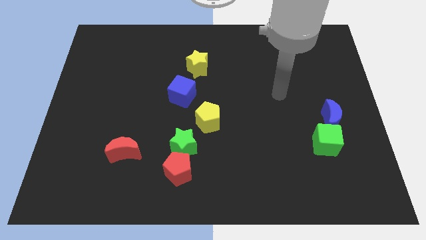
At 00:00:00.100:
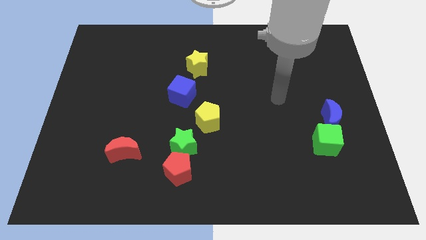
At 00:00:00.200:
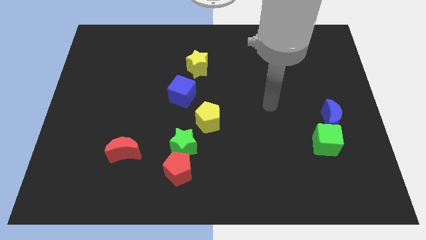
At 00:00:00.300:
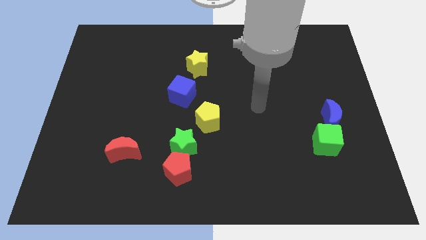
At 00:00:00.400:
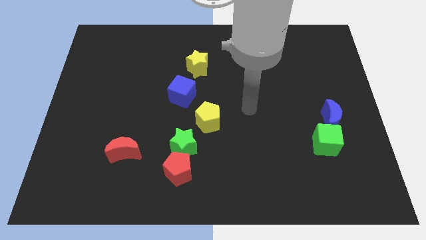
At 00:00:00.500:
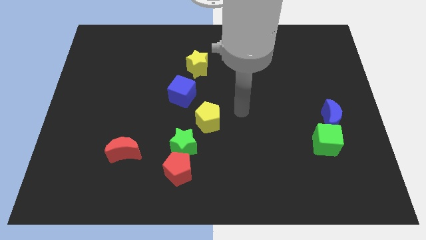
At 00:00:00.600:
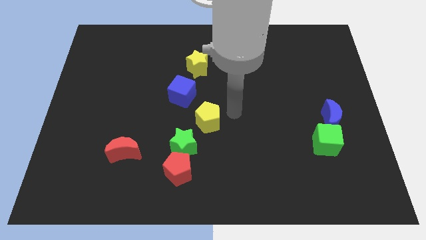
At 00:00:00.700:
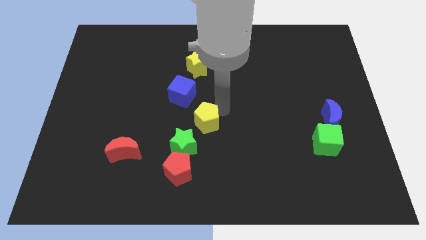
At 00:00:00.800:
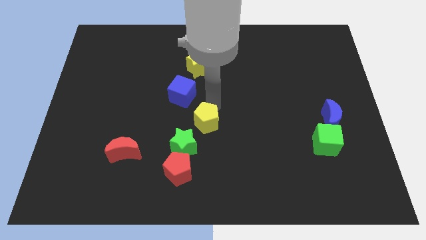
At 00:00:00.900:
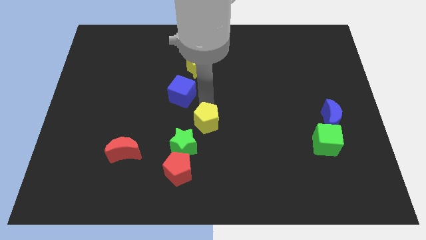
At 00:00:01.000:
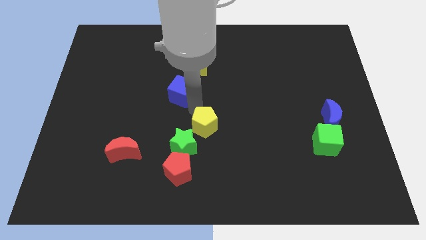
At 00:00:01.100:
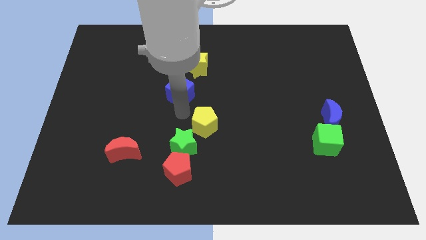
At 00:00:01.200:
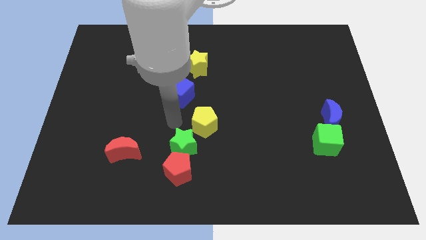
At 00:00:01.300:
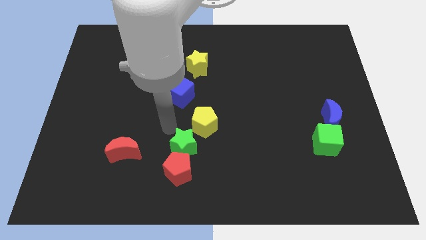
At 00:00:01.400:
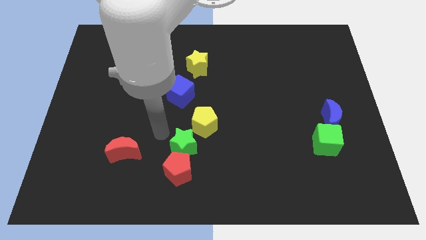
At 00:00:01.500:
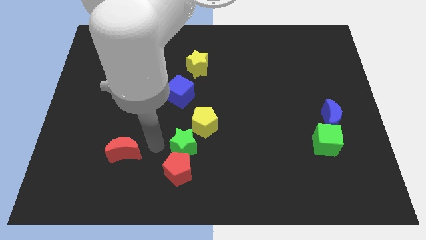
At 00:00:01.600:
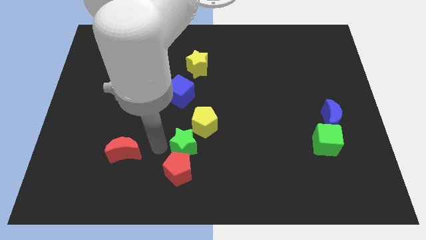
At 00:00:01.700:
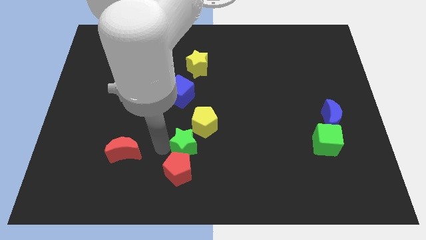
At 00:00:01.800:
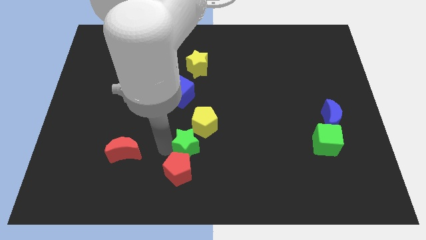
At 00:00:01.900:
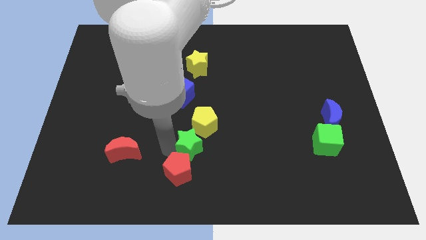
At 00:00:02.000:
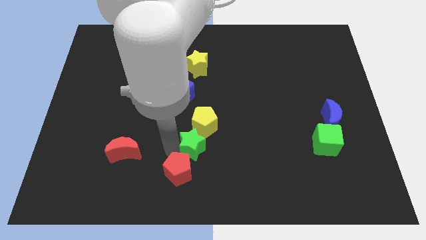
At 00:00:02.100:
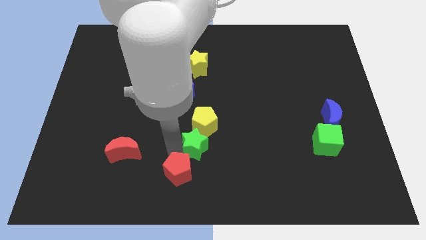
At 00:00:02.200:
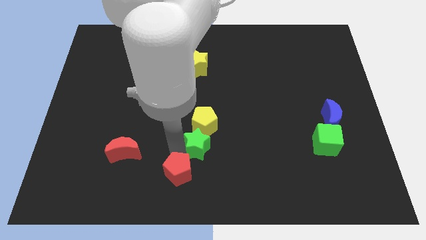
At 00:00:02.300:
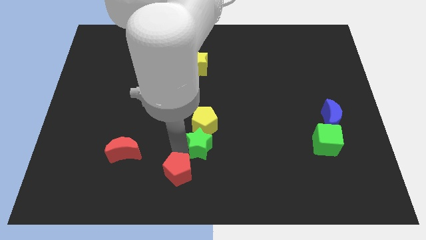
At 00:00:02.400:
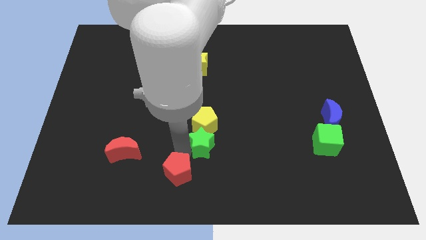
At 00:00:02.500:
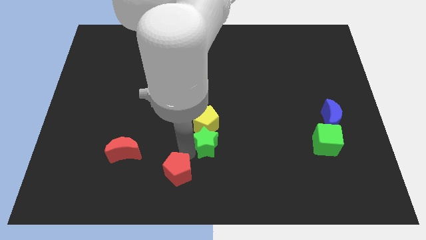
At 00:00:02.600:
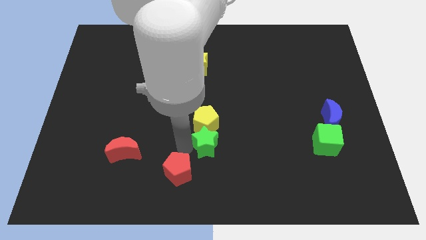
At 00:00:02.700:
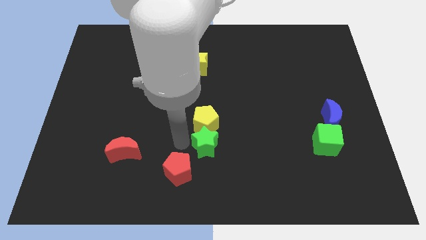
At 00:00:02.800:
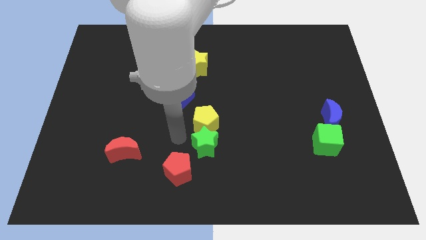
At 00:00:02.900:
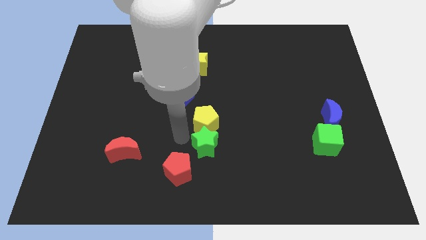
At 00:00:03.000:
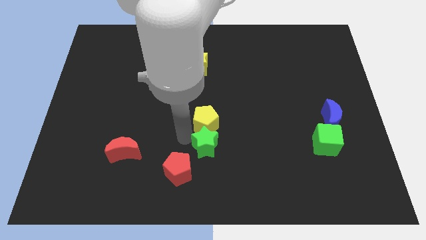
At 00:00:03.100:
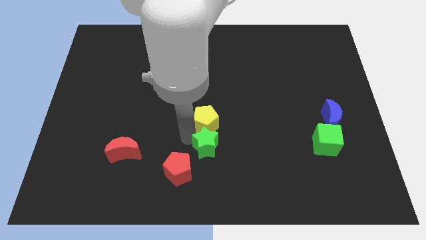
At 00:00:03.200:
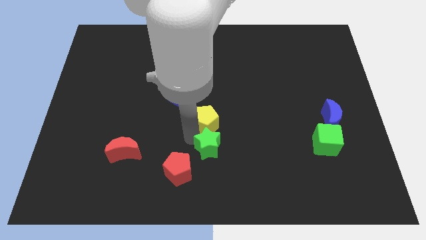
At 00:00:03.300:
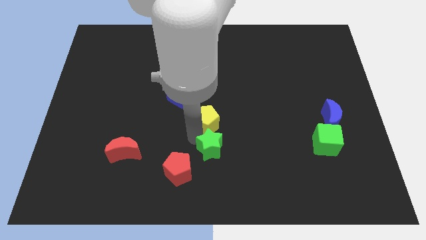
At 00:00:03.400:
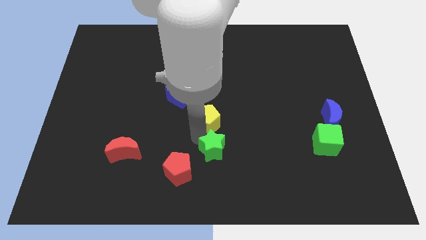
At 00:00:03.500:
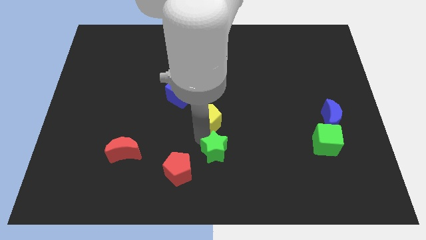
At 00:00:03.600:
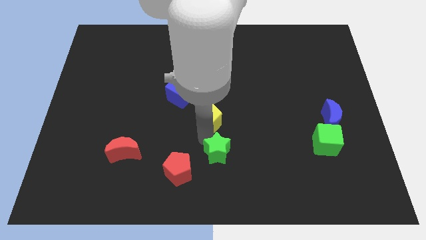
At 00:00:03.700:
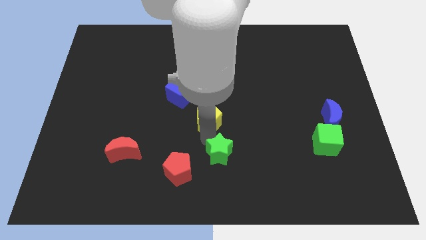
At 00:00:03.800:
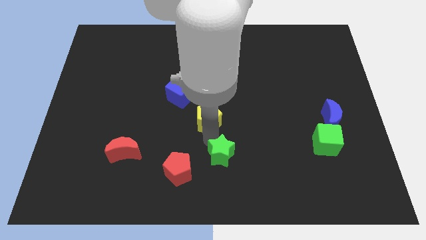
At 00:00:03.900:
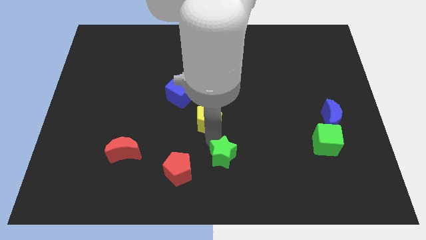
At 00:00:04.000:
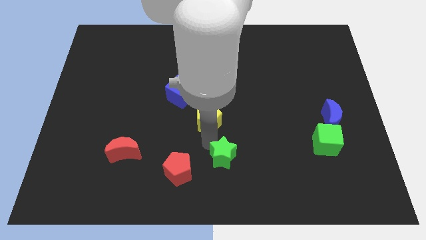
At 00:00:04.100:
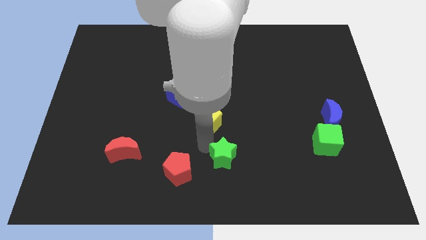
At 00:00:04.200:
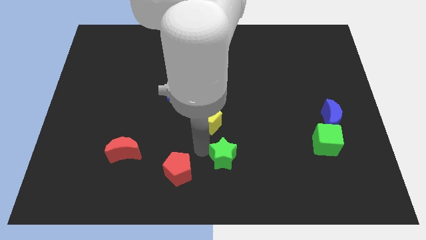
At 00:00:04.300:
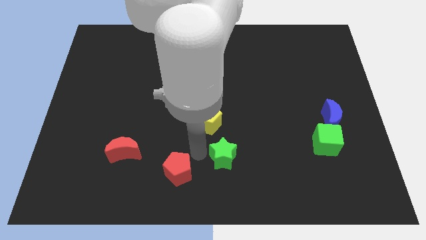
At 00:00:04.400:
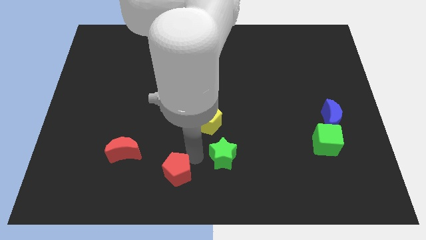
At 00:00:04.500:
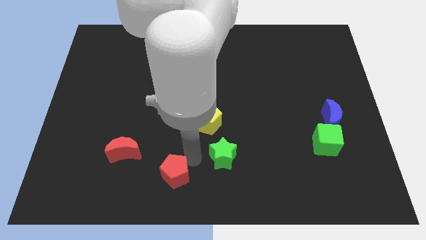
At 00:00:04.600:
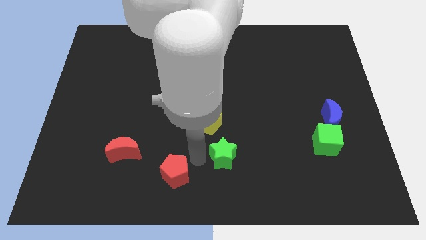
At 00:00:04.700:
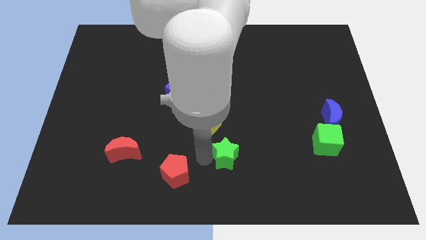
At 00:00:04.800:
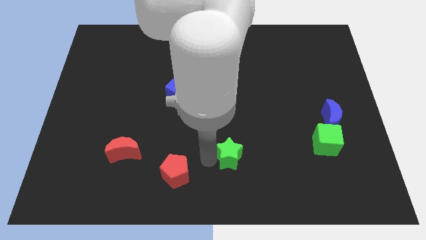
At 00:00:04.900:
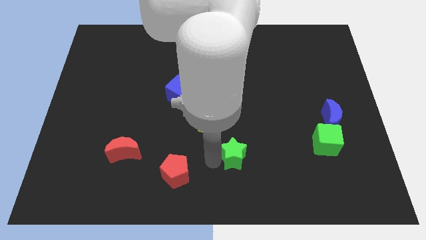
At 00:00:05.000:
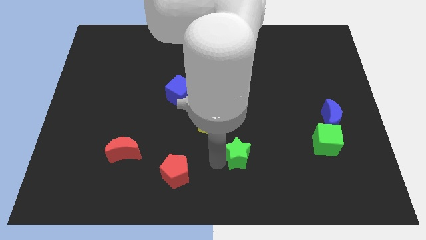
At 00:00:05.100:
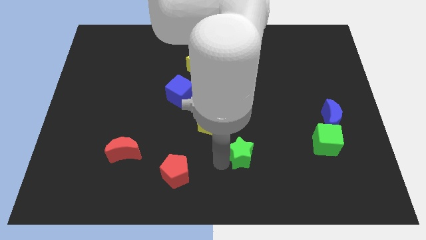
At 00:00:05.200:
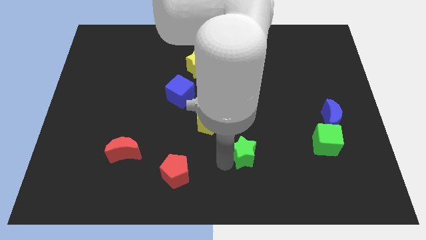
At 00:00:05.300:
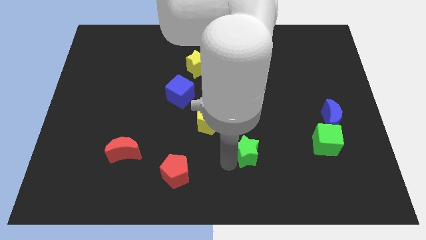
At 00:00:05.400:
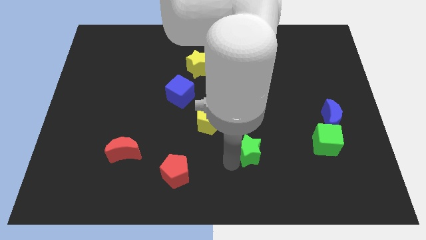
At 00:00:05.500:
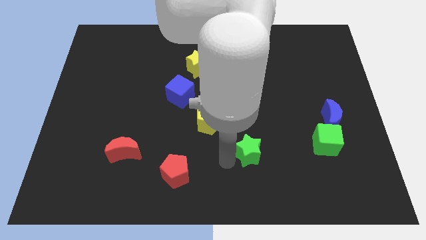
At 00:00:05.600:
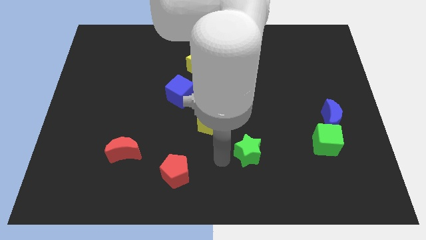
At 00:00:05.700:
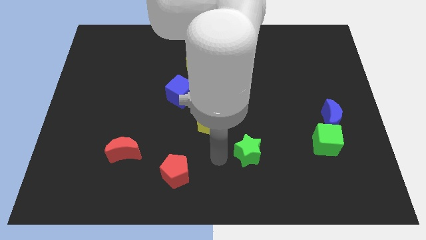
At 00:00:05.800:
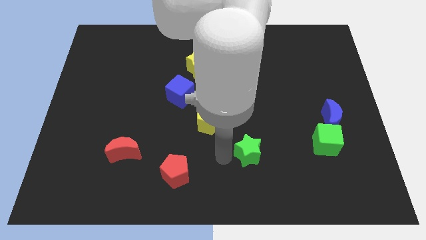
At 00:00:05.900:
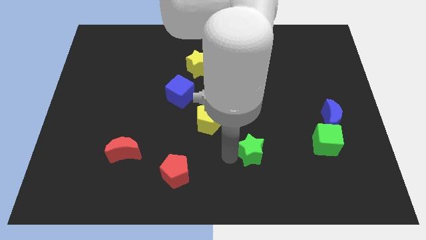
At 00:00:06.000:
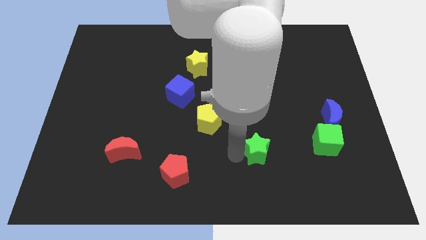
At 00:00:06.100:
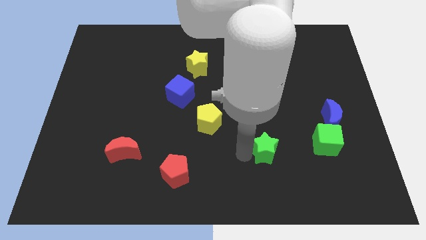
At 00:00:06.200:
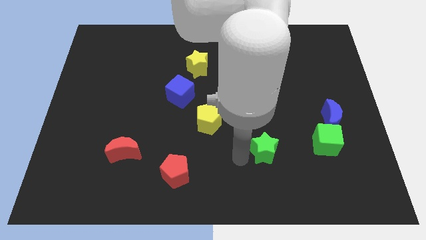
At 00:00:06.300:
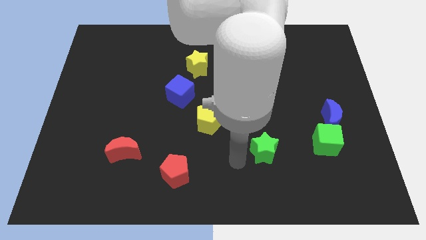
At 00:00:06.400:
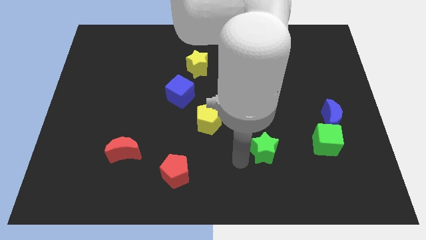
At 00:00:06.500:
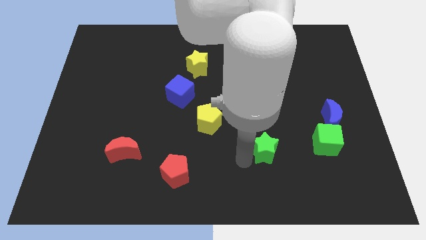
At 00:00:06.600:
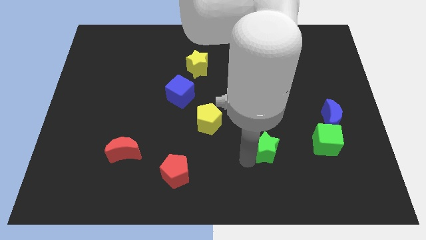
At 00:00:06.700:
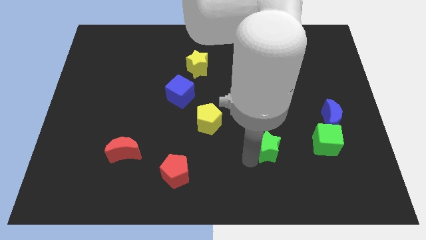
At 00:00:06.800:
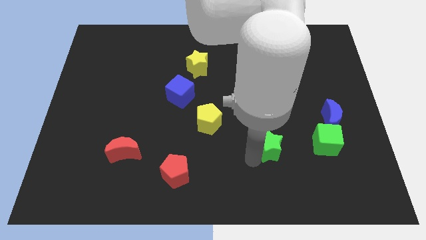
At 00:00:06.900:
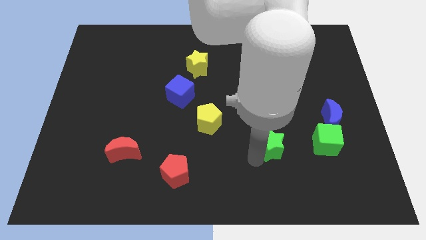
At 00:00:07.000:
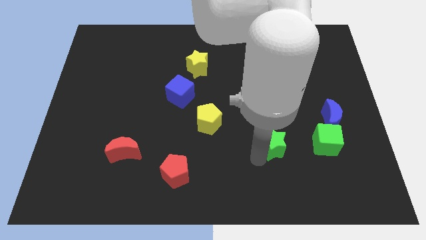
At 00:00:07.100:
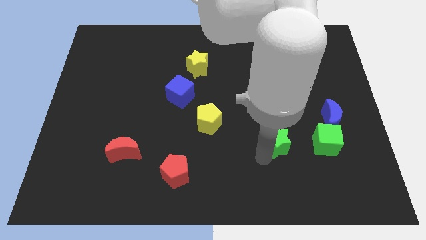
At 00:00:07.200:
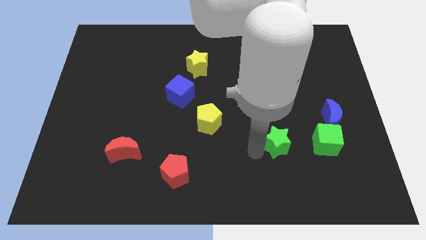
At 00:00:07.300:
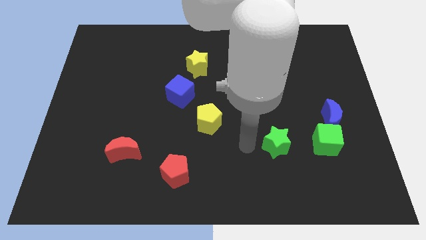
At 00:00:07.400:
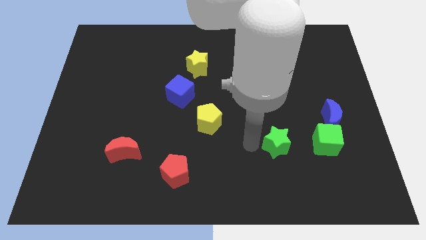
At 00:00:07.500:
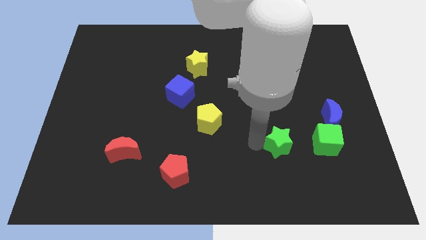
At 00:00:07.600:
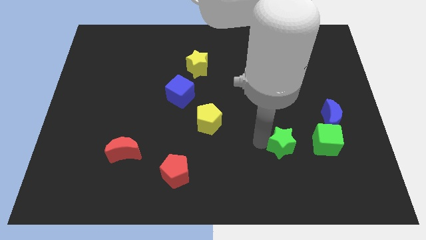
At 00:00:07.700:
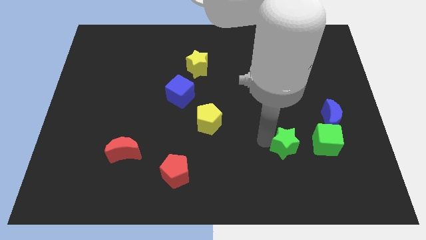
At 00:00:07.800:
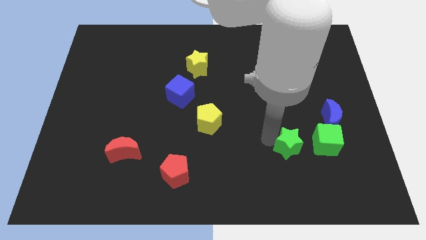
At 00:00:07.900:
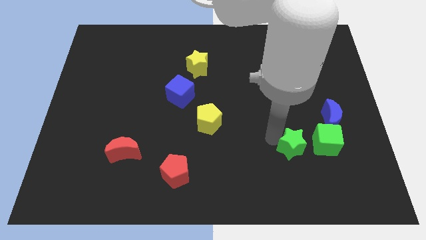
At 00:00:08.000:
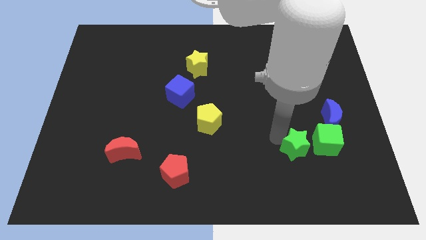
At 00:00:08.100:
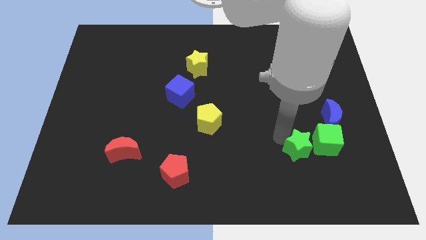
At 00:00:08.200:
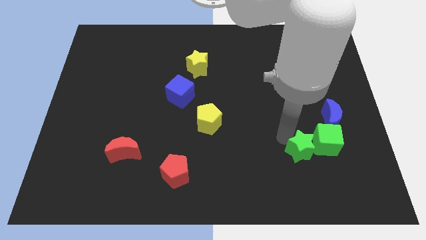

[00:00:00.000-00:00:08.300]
put the green star close to the green cube
